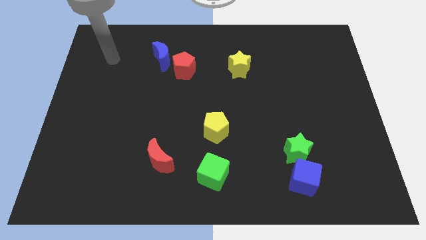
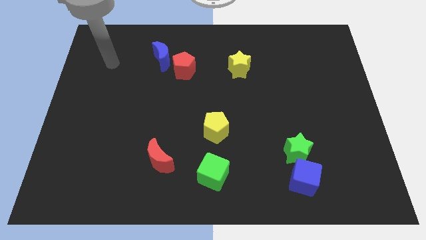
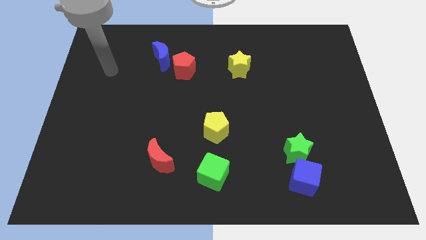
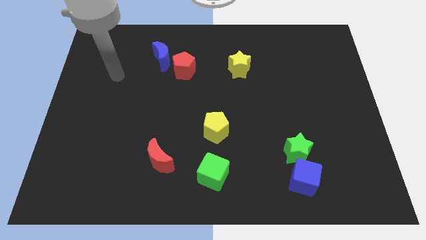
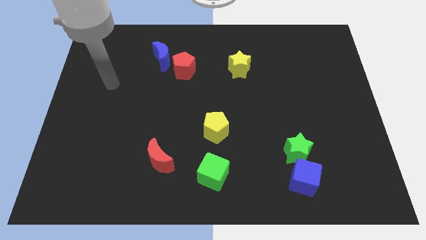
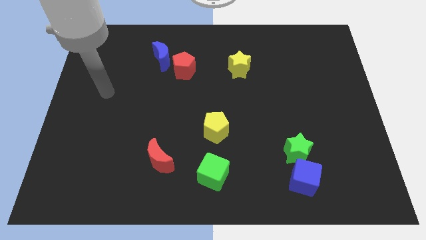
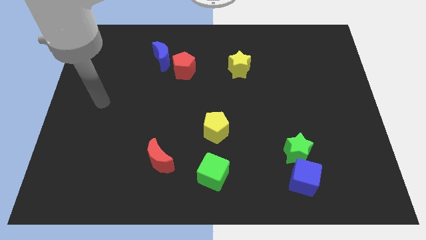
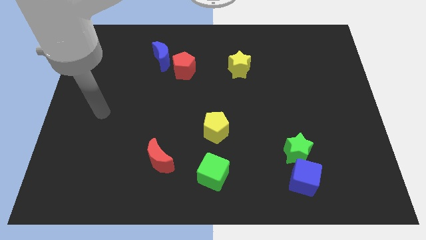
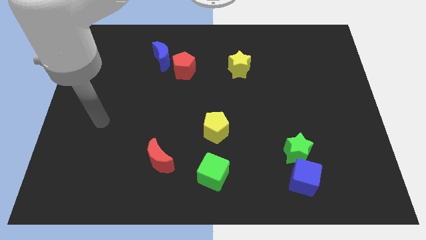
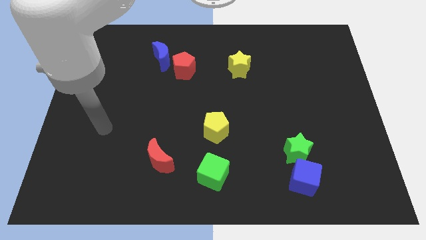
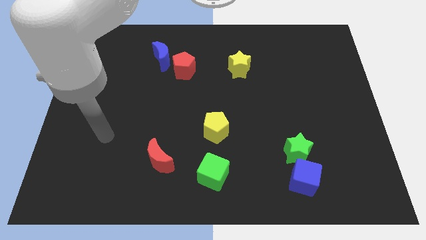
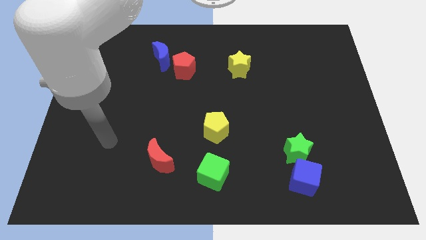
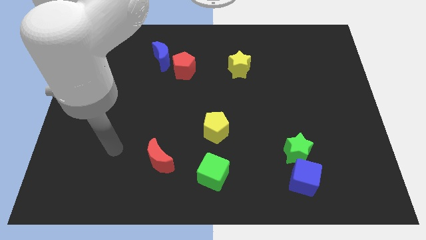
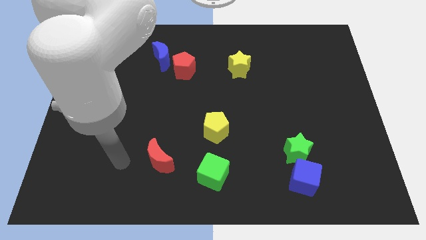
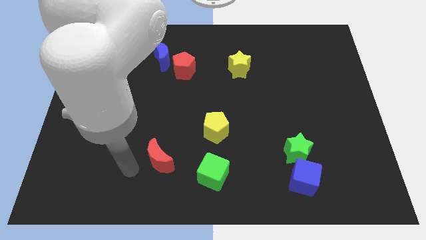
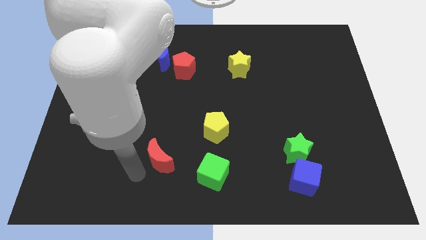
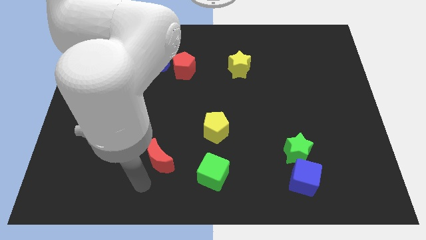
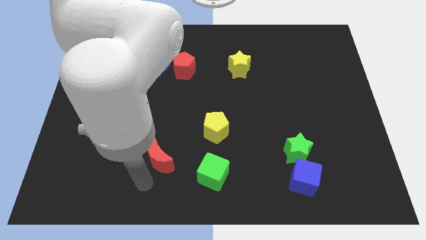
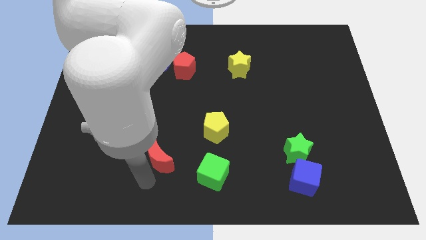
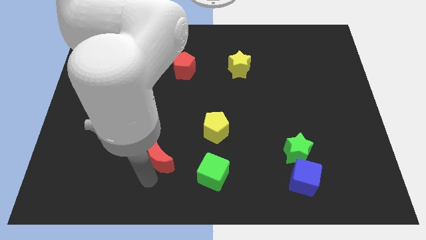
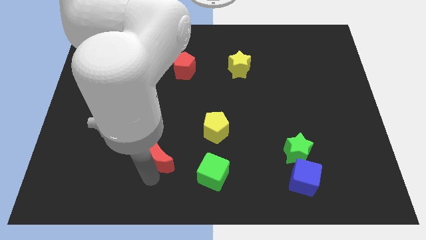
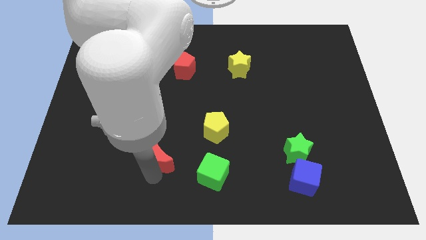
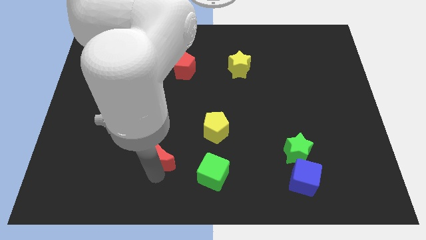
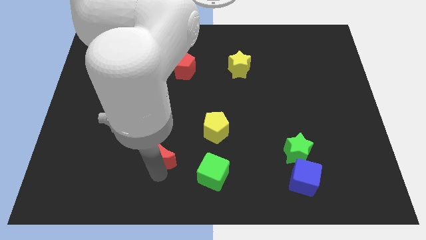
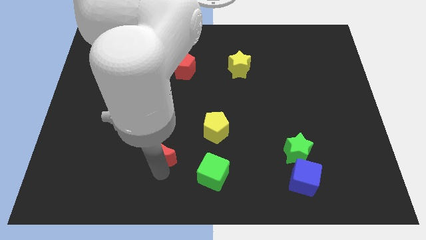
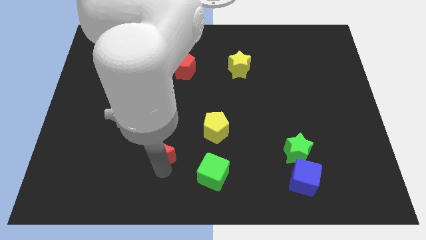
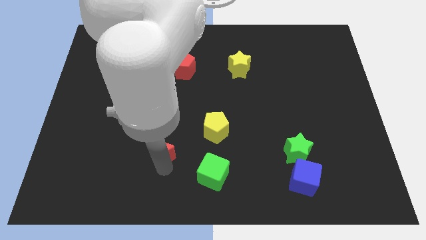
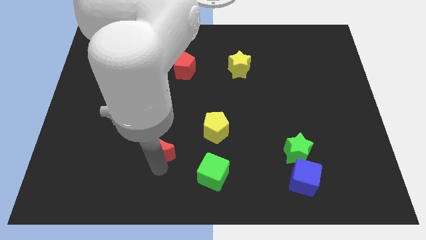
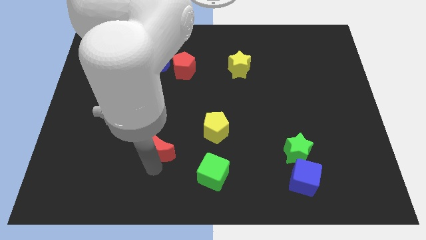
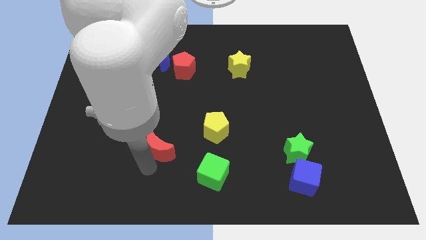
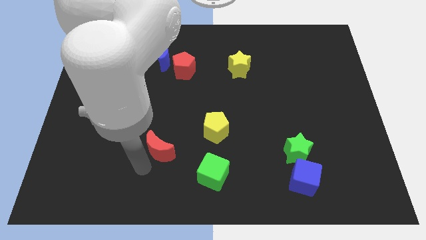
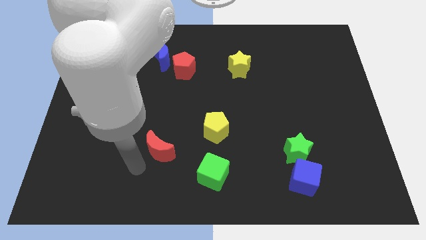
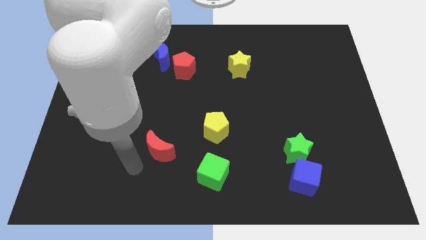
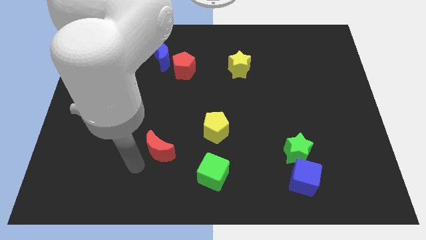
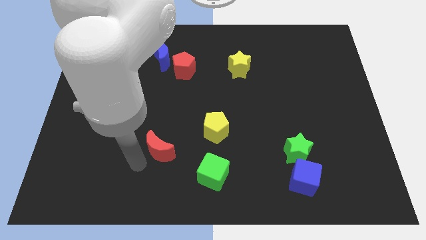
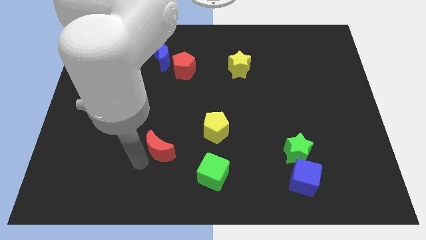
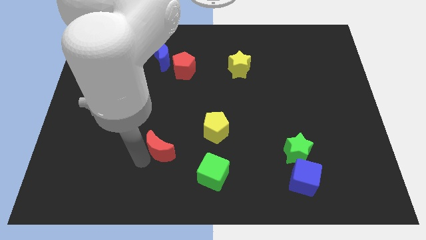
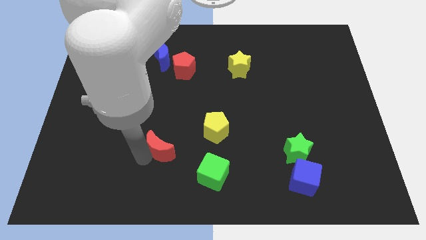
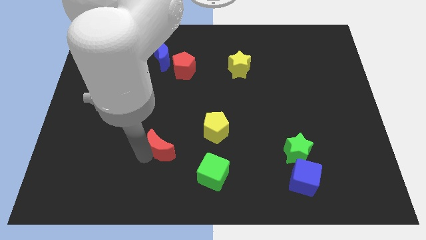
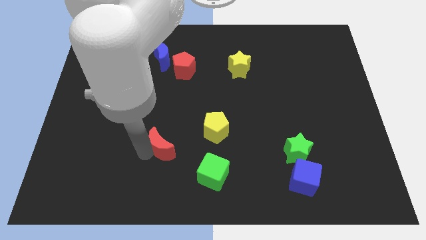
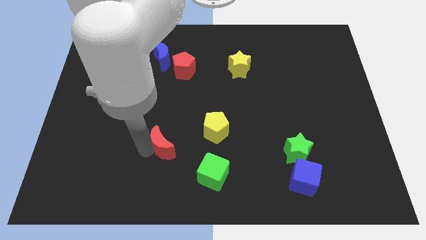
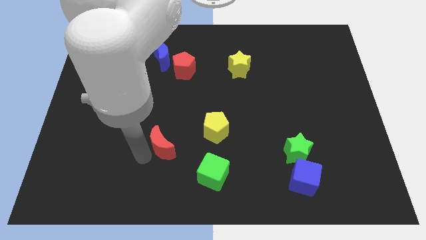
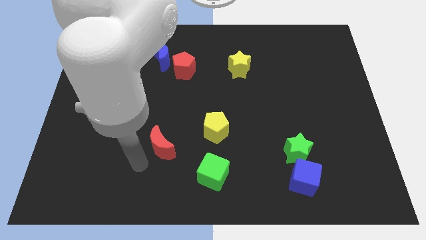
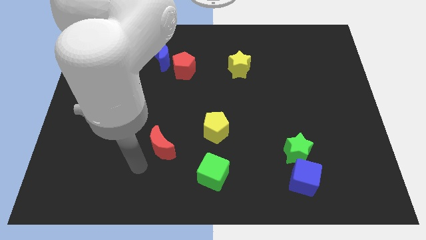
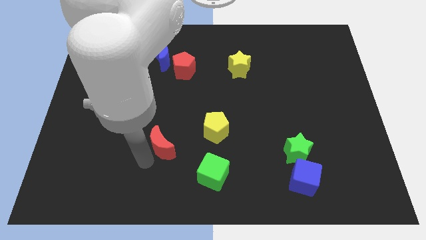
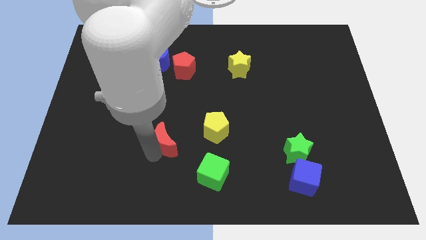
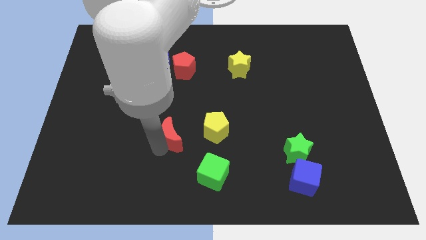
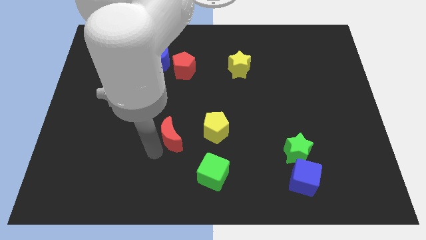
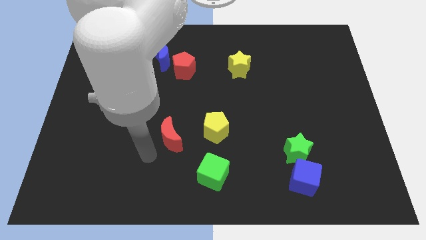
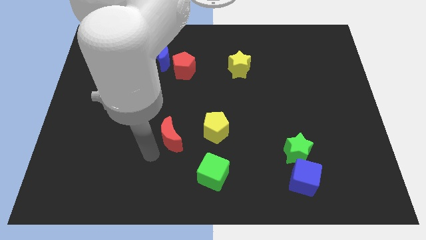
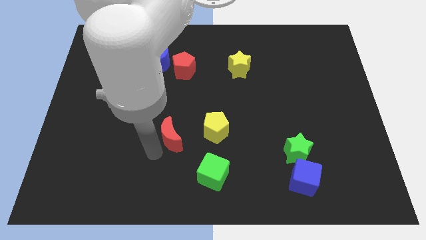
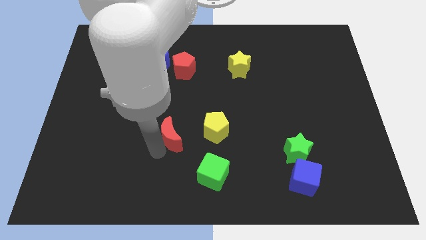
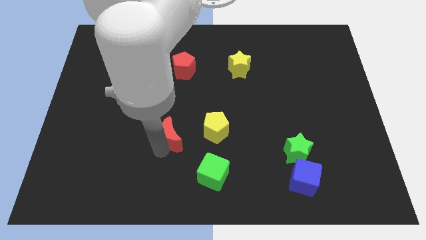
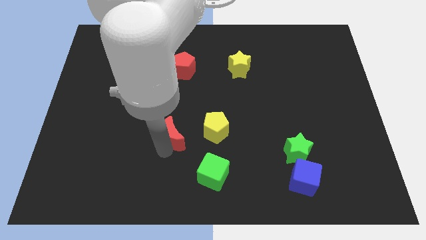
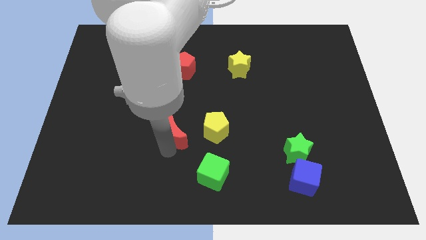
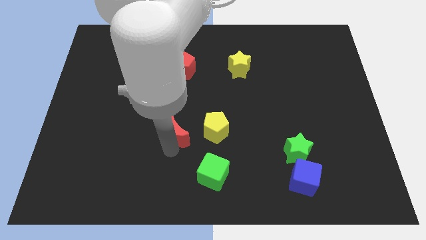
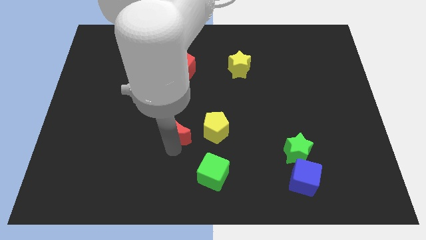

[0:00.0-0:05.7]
push the red moon to the center of the board

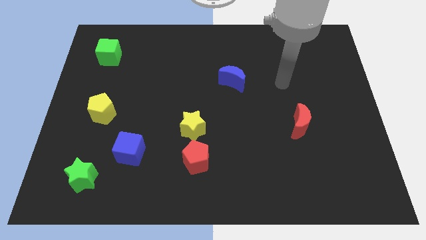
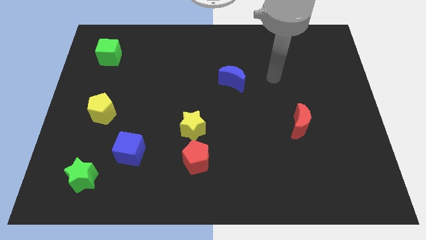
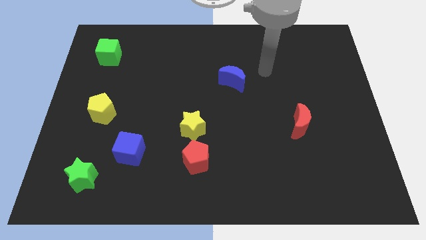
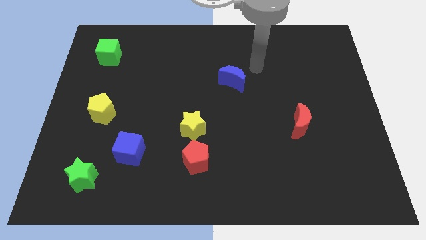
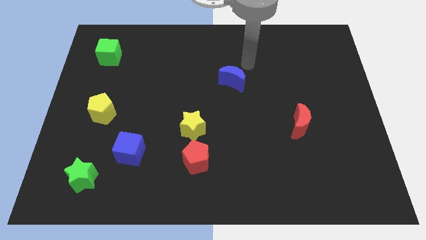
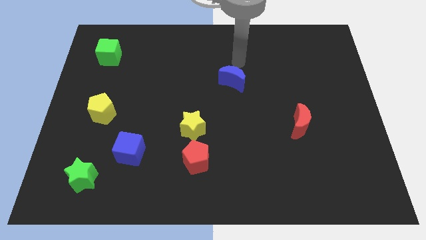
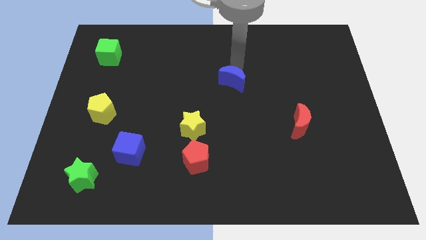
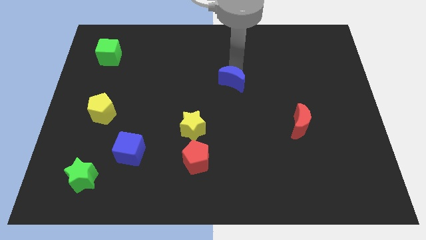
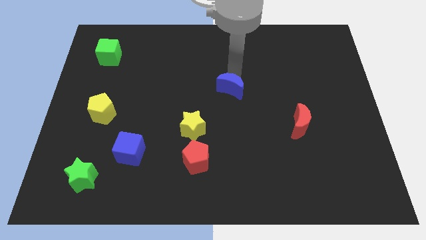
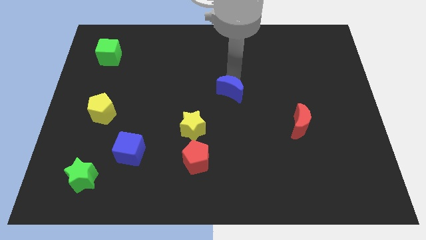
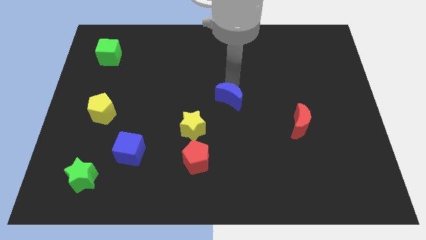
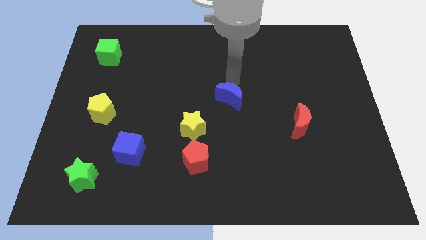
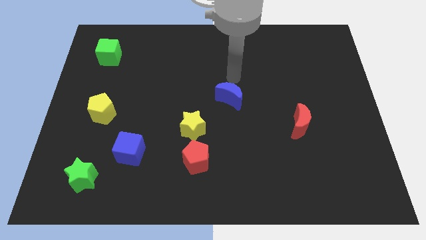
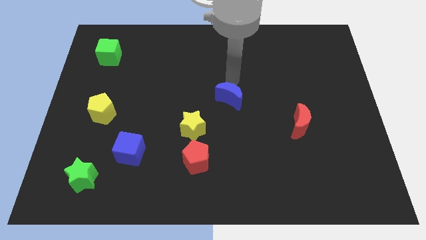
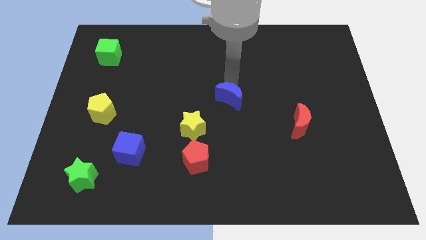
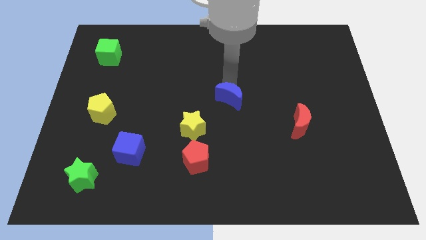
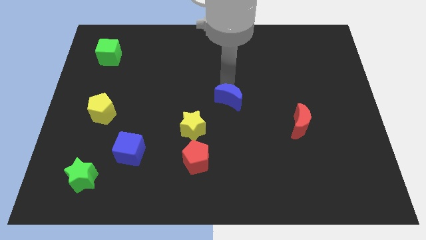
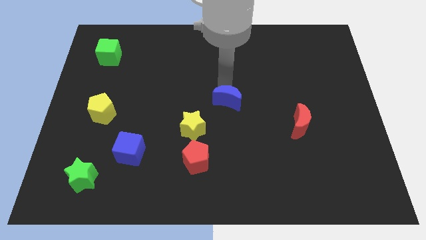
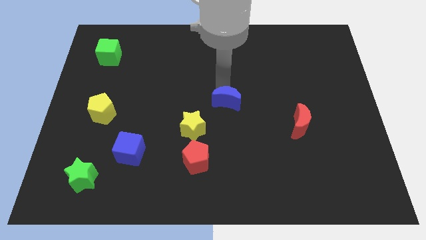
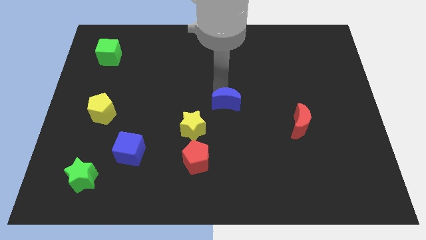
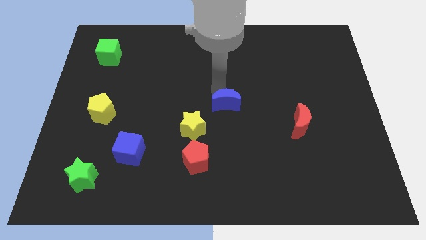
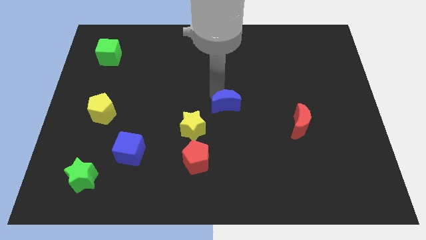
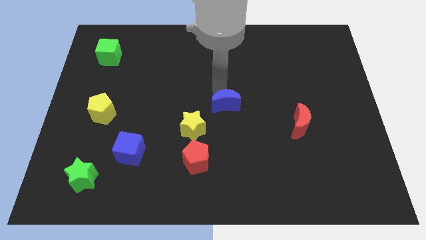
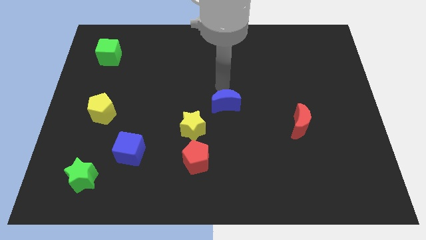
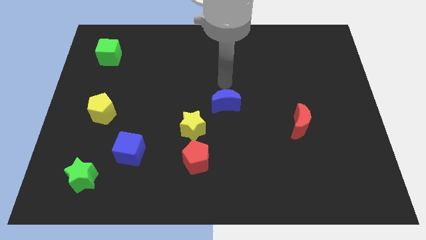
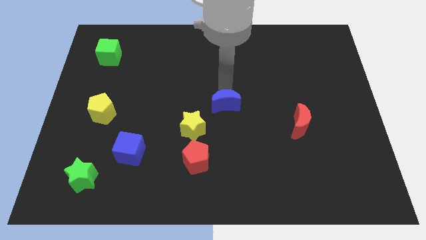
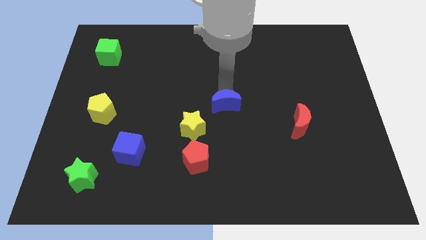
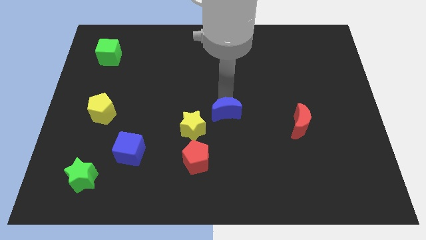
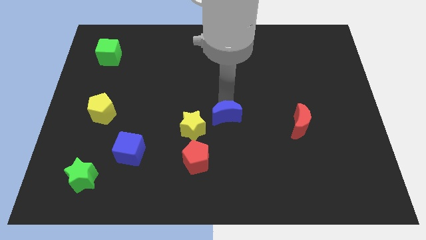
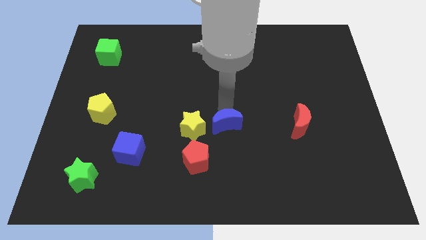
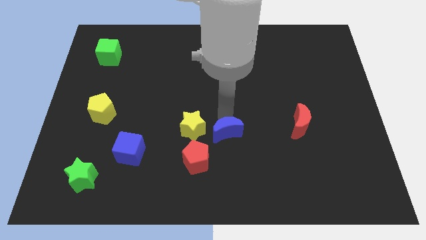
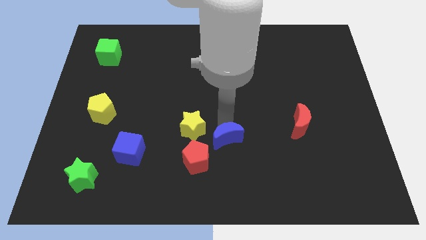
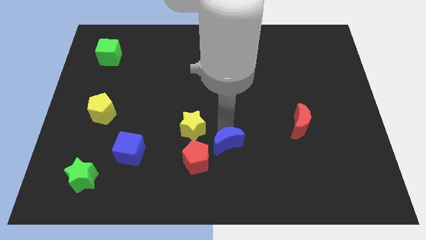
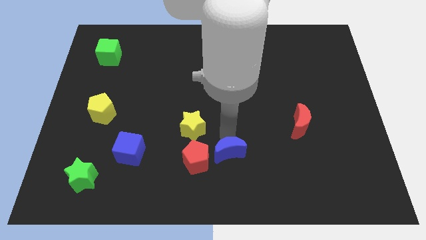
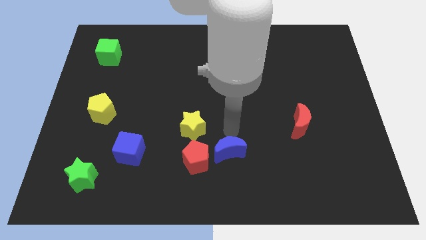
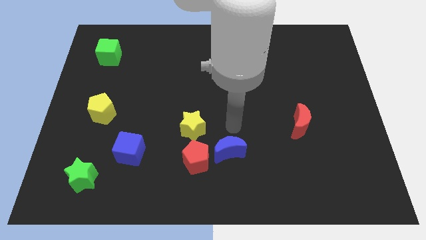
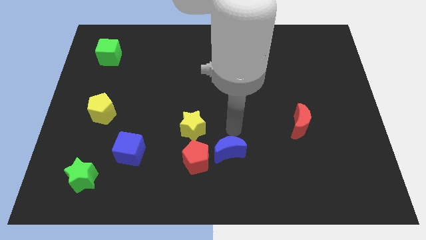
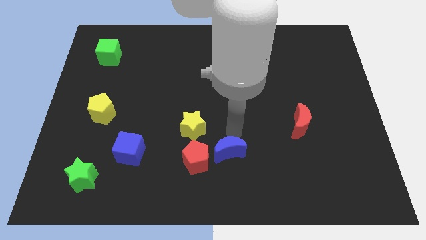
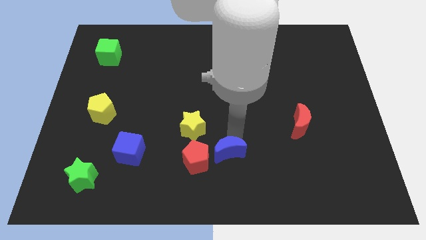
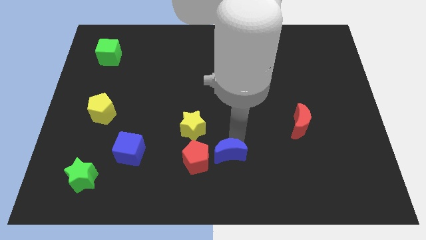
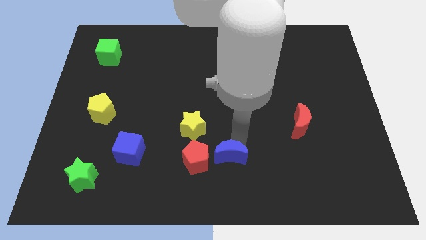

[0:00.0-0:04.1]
push the blue moon to the bottom
